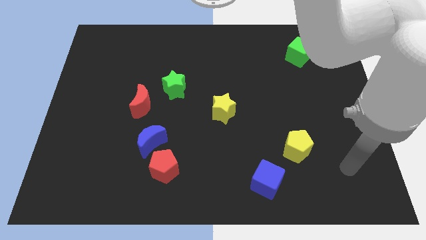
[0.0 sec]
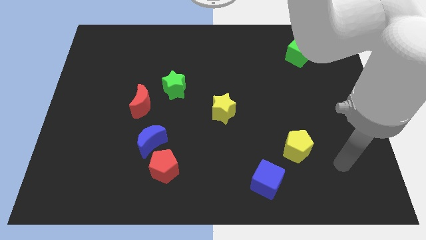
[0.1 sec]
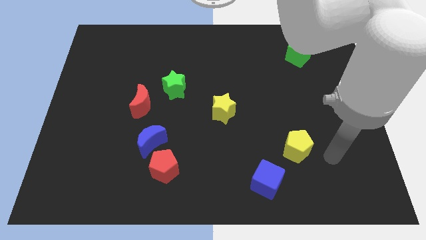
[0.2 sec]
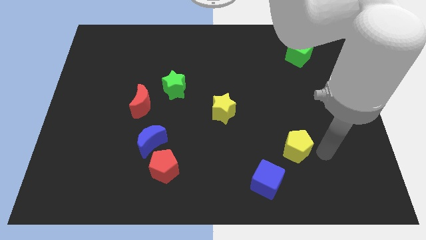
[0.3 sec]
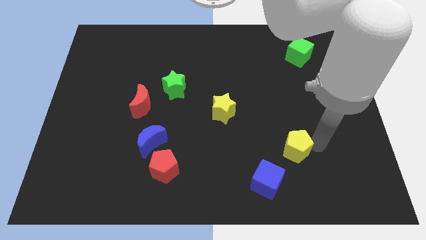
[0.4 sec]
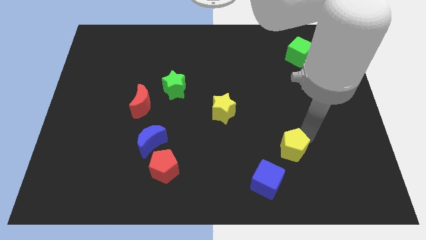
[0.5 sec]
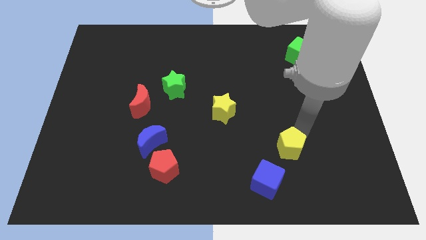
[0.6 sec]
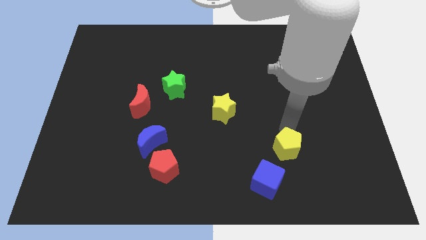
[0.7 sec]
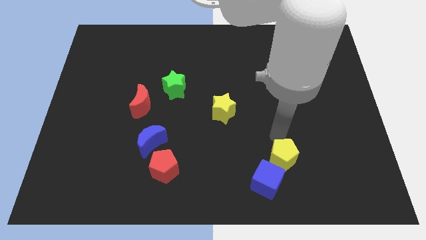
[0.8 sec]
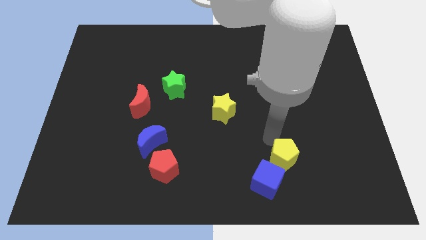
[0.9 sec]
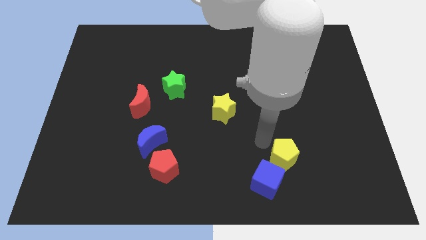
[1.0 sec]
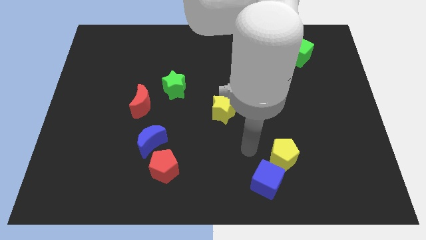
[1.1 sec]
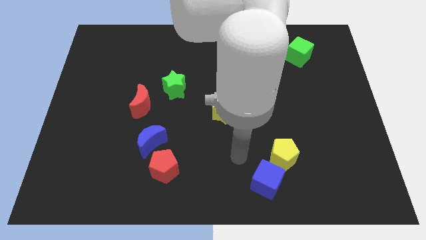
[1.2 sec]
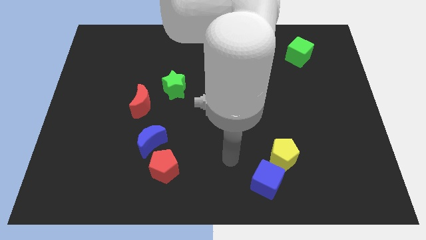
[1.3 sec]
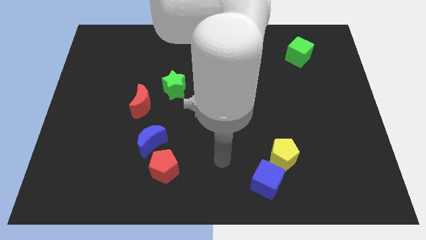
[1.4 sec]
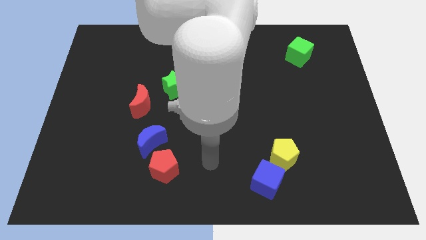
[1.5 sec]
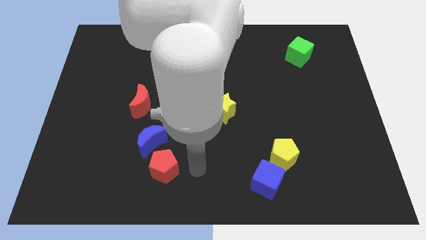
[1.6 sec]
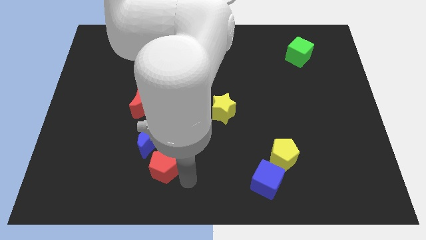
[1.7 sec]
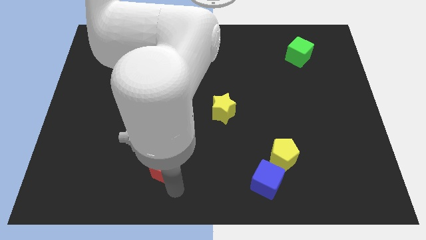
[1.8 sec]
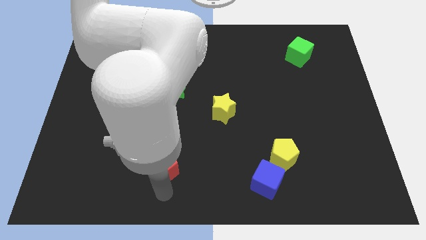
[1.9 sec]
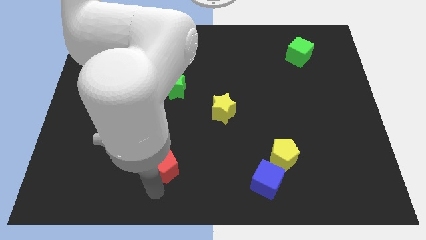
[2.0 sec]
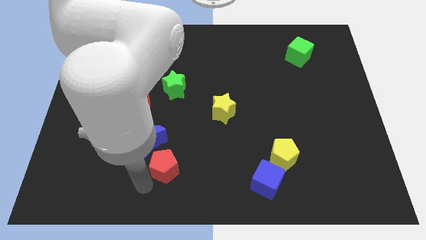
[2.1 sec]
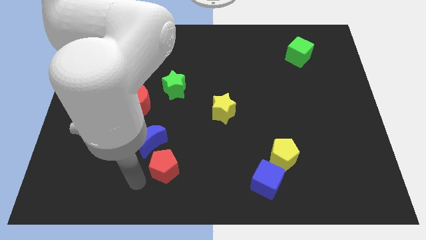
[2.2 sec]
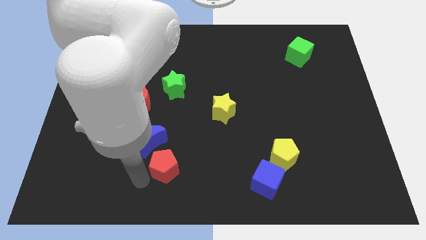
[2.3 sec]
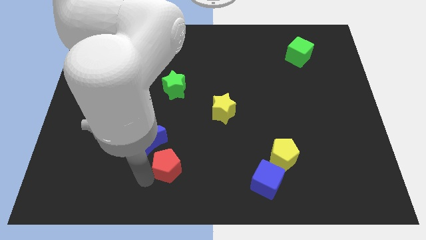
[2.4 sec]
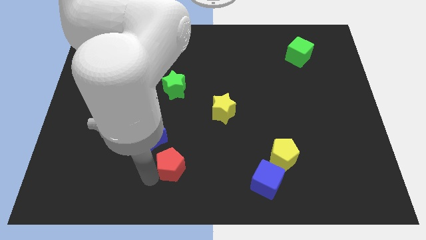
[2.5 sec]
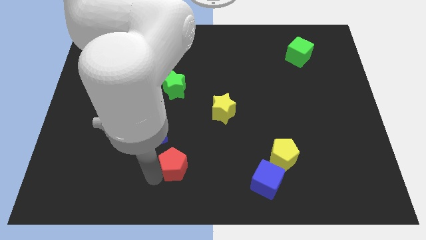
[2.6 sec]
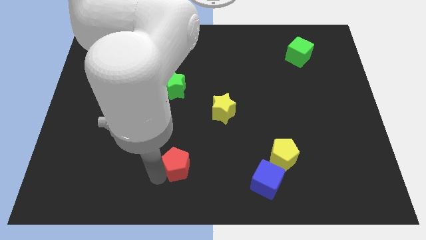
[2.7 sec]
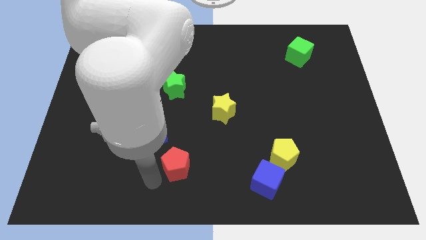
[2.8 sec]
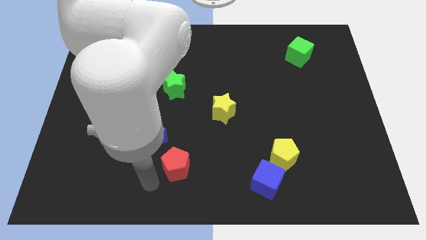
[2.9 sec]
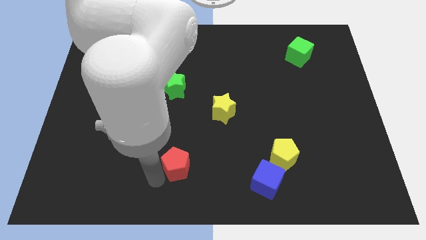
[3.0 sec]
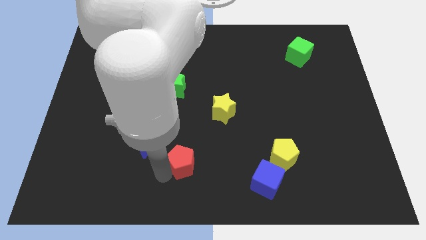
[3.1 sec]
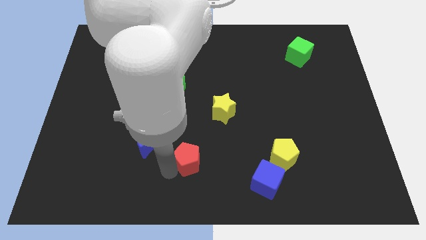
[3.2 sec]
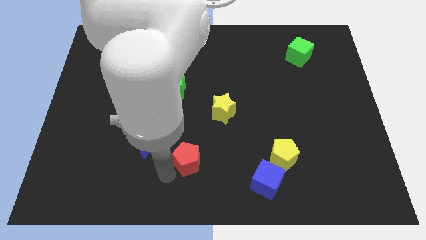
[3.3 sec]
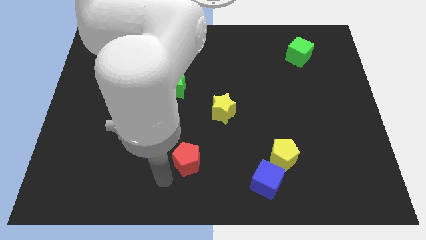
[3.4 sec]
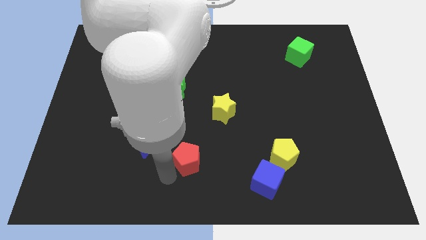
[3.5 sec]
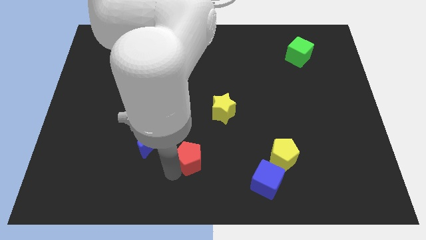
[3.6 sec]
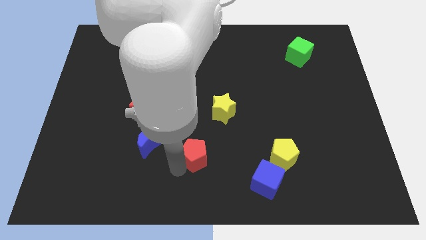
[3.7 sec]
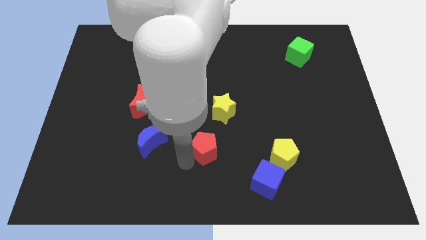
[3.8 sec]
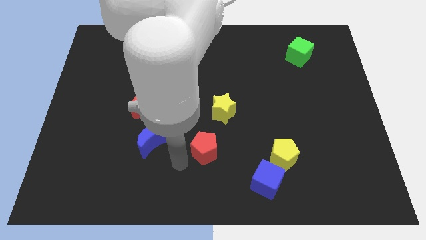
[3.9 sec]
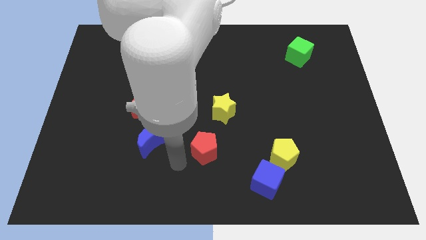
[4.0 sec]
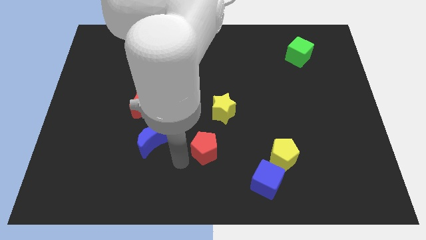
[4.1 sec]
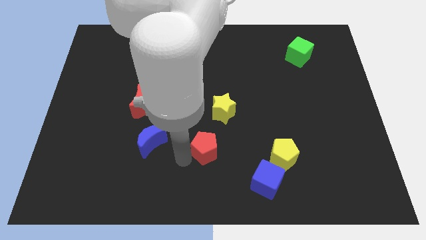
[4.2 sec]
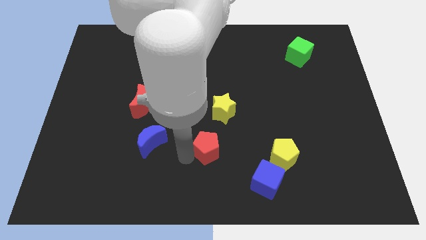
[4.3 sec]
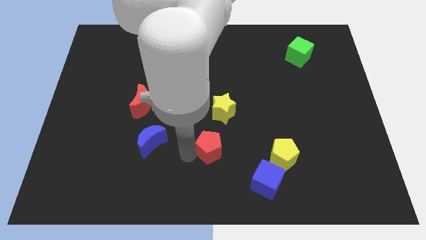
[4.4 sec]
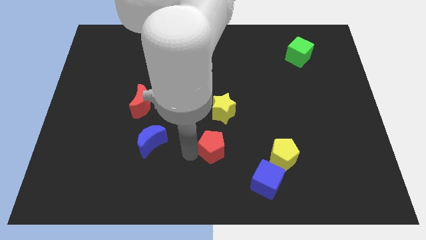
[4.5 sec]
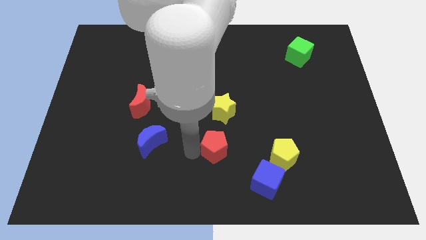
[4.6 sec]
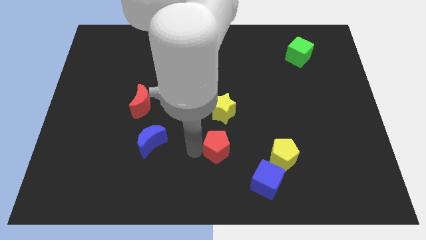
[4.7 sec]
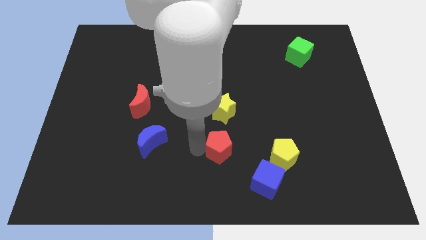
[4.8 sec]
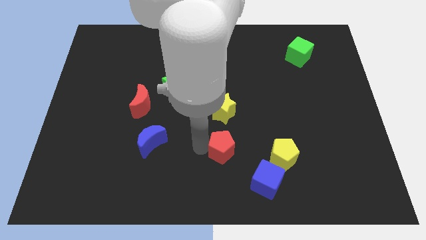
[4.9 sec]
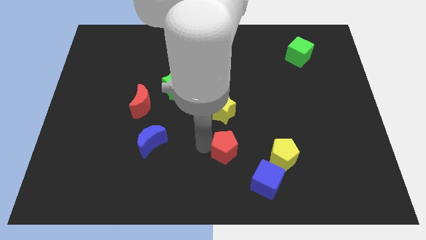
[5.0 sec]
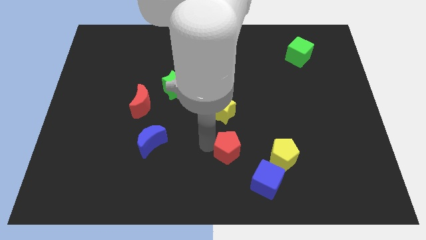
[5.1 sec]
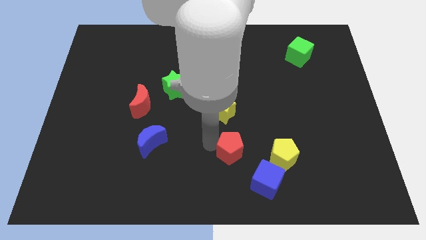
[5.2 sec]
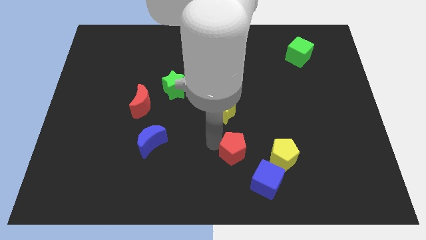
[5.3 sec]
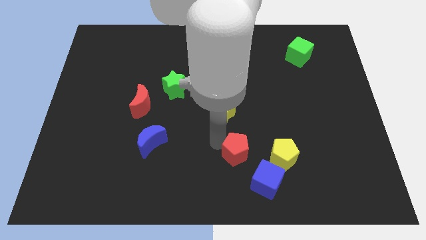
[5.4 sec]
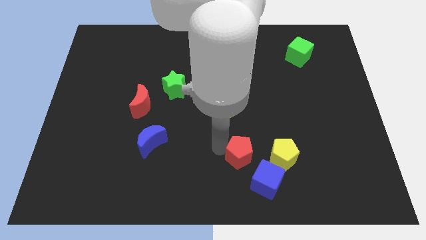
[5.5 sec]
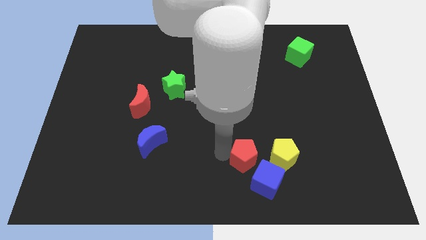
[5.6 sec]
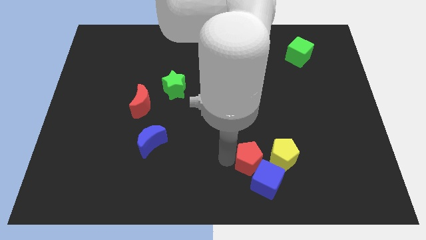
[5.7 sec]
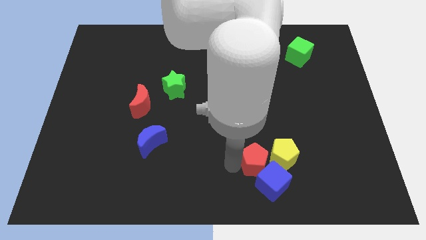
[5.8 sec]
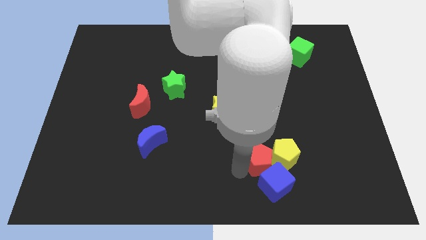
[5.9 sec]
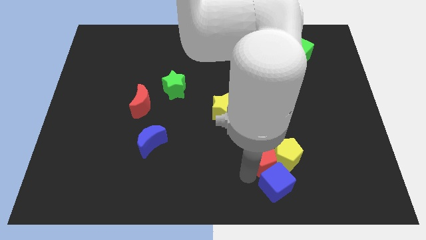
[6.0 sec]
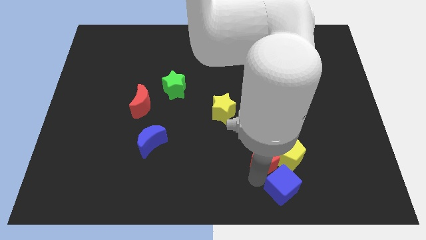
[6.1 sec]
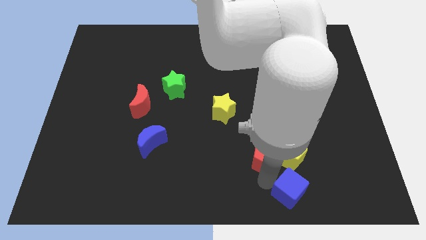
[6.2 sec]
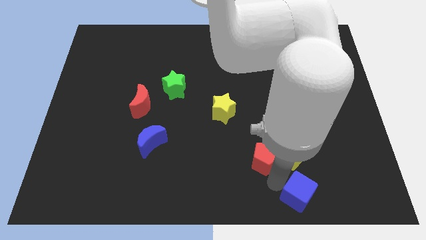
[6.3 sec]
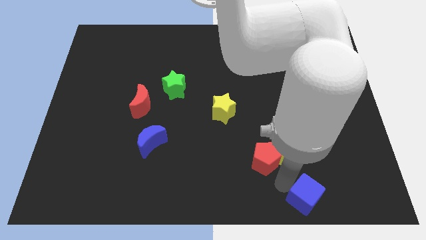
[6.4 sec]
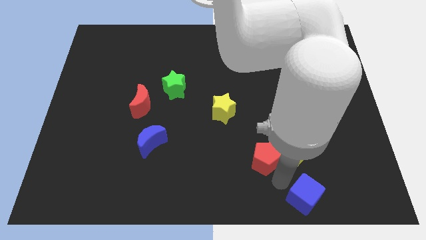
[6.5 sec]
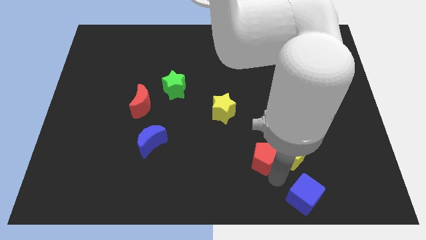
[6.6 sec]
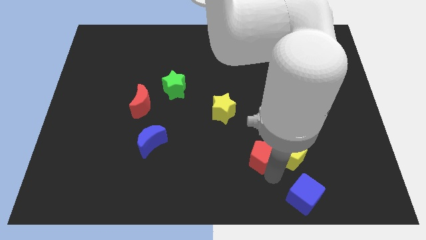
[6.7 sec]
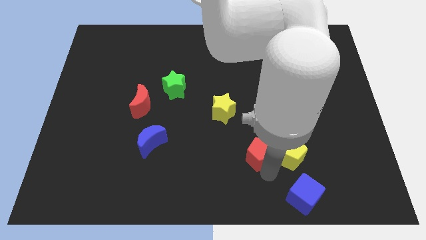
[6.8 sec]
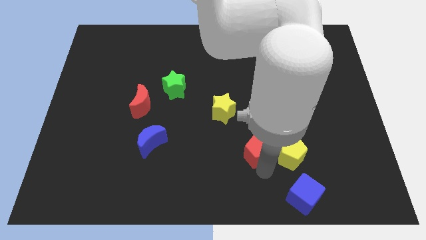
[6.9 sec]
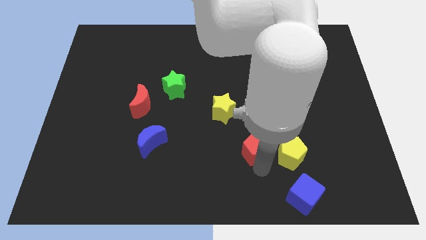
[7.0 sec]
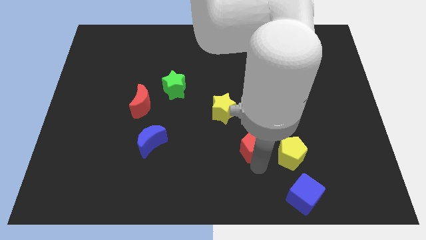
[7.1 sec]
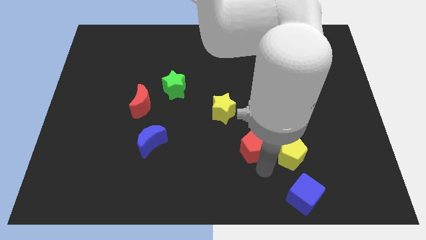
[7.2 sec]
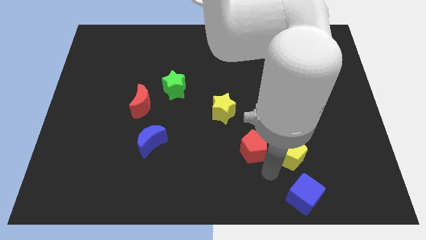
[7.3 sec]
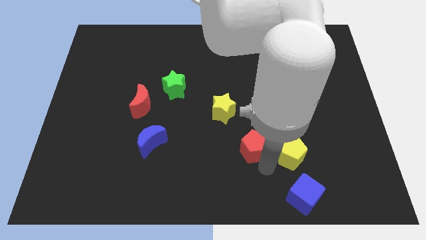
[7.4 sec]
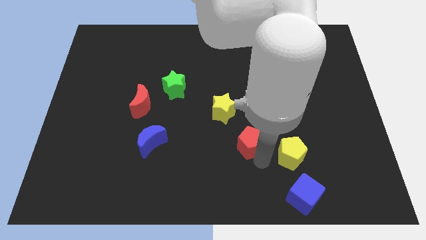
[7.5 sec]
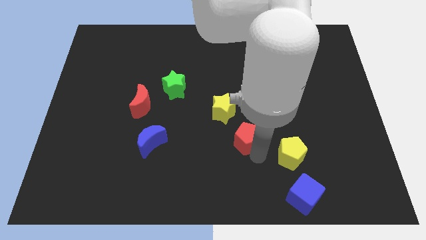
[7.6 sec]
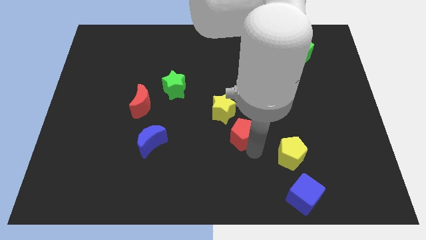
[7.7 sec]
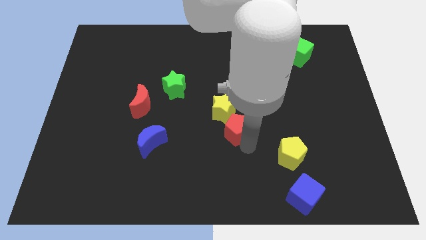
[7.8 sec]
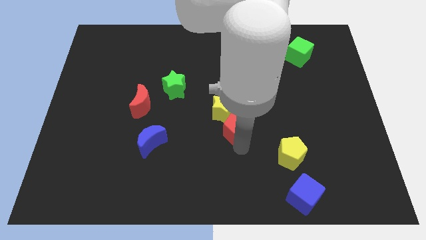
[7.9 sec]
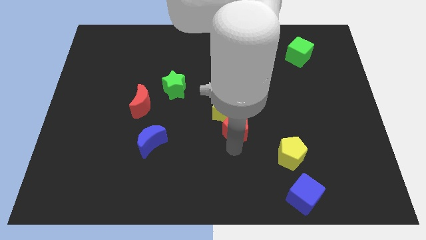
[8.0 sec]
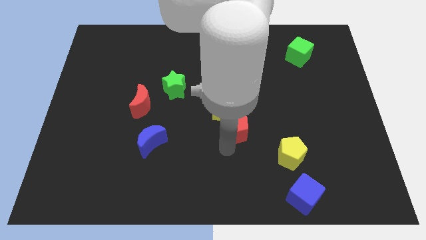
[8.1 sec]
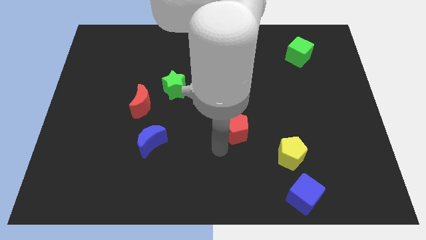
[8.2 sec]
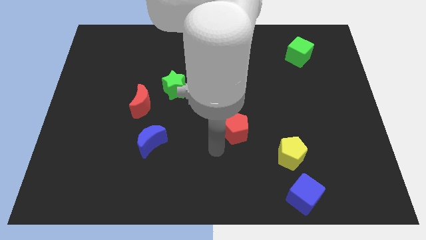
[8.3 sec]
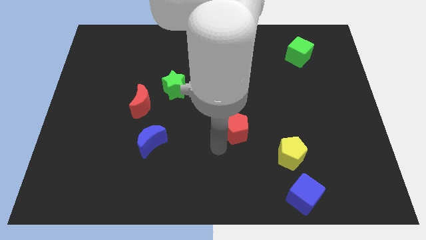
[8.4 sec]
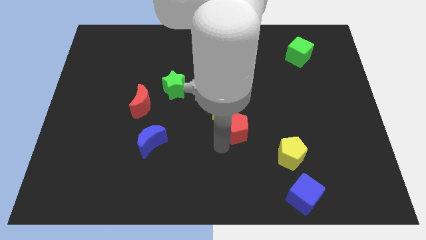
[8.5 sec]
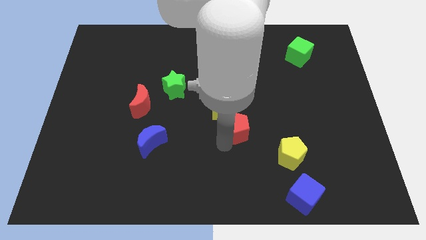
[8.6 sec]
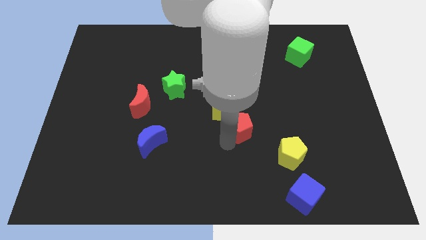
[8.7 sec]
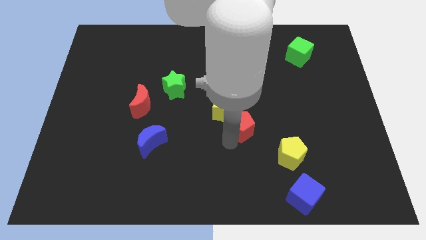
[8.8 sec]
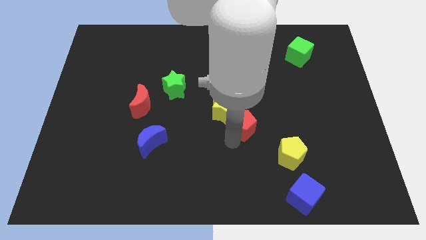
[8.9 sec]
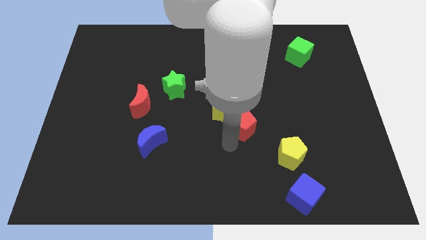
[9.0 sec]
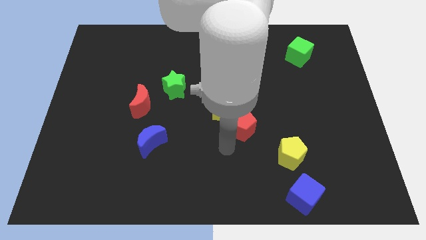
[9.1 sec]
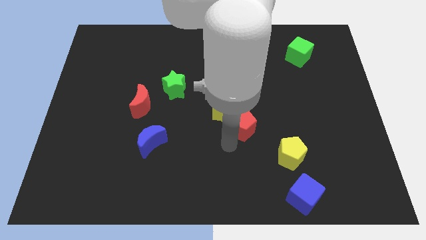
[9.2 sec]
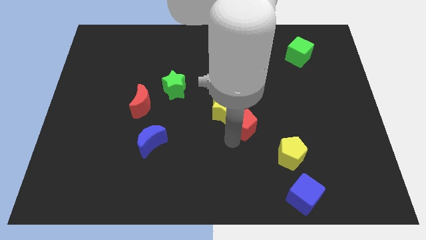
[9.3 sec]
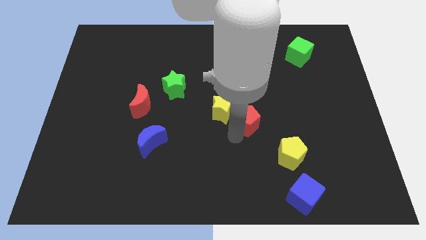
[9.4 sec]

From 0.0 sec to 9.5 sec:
push the red pentagon upwards and right diagonally
